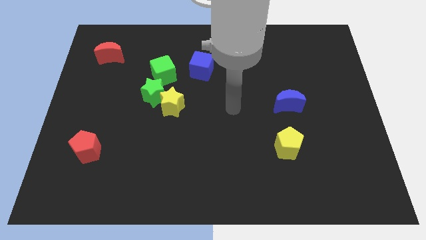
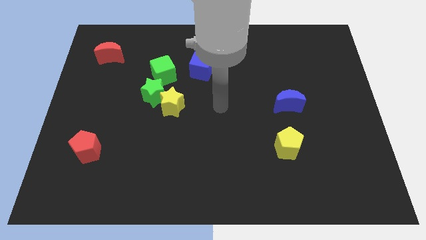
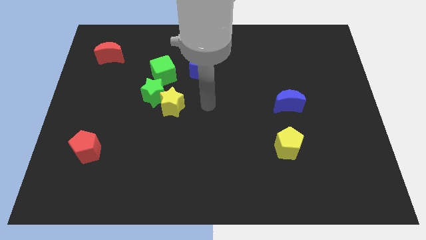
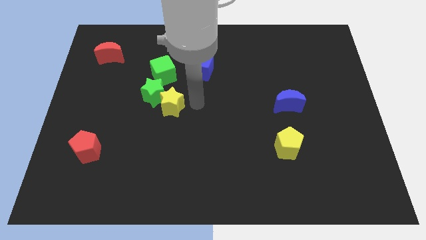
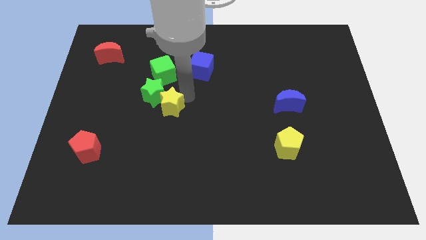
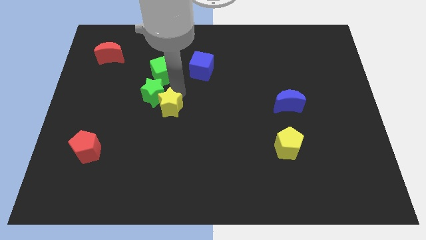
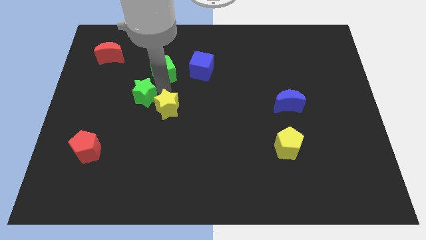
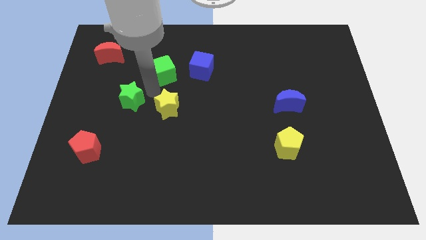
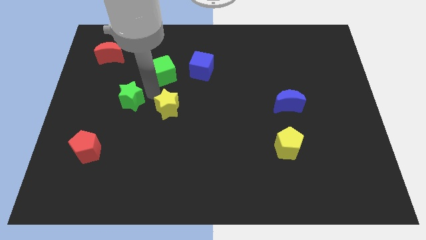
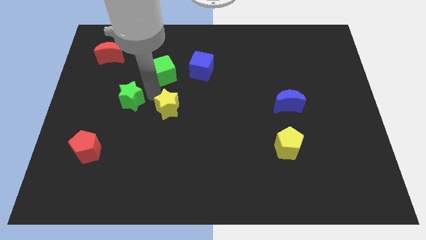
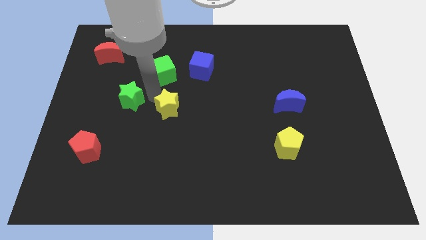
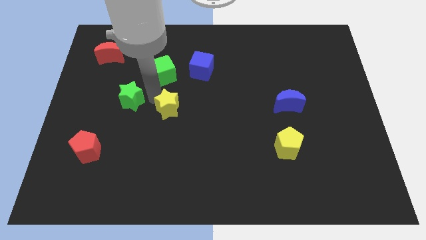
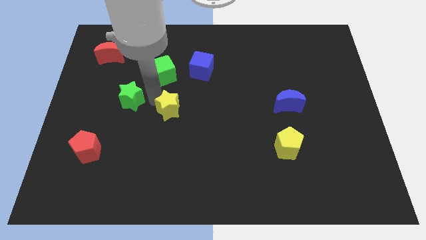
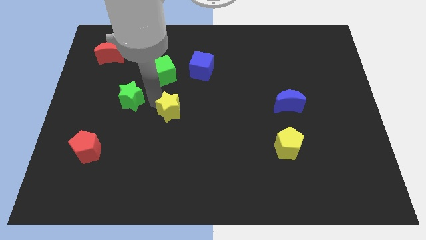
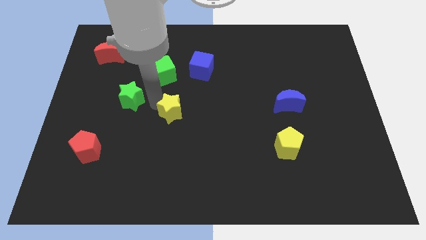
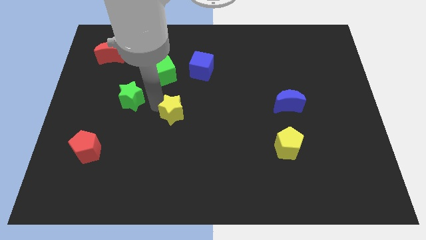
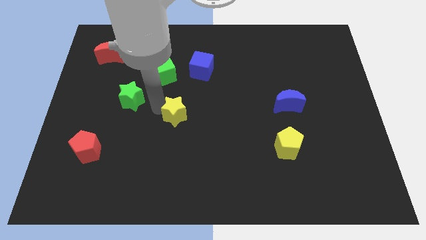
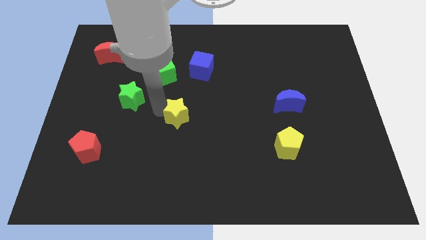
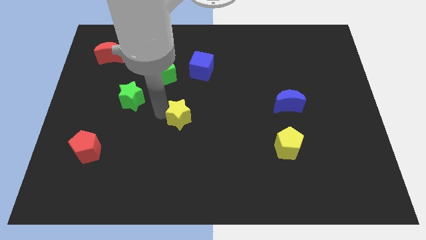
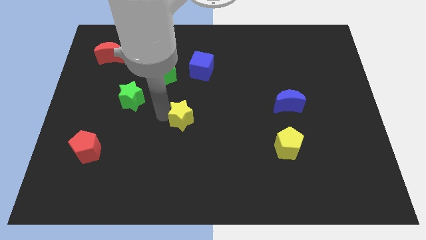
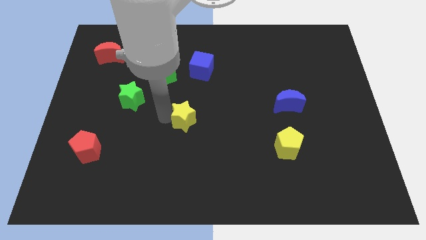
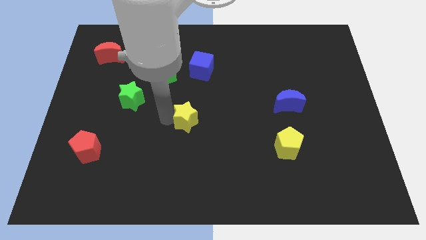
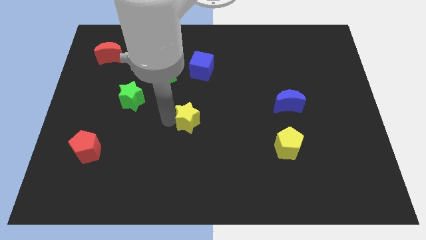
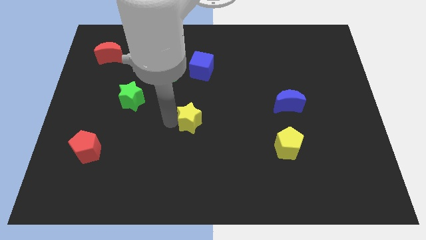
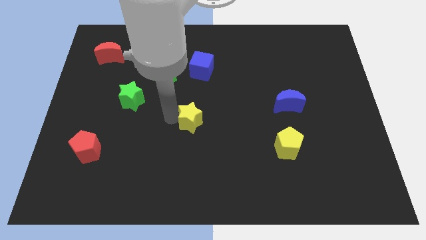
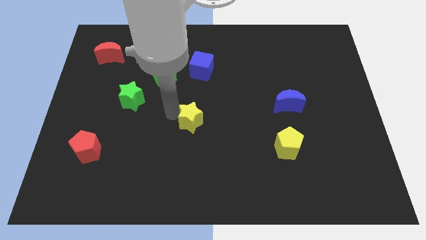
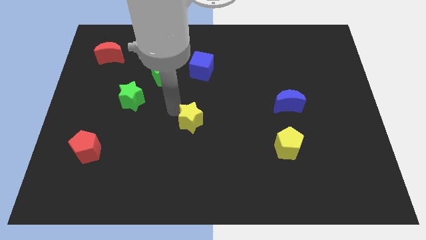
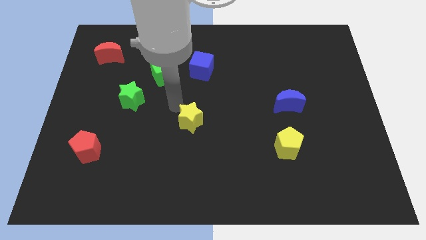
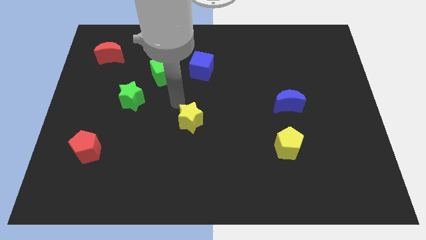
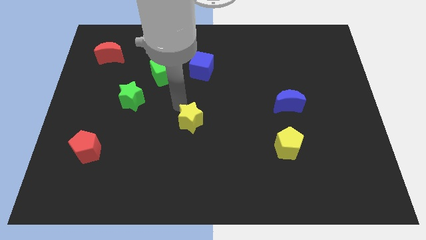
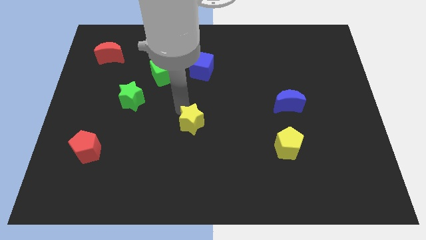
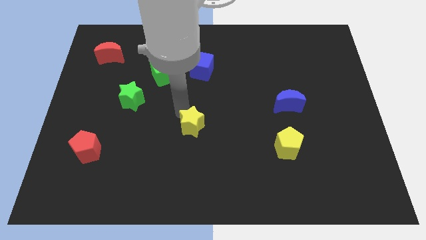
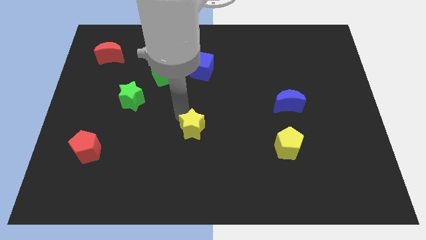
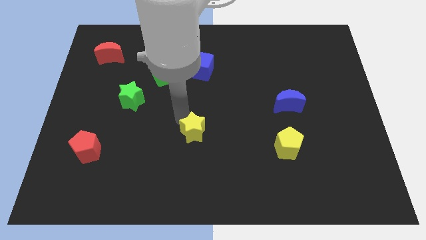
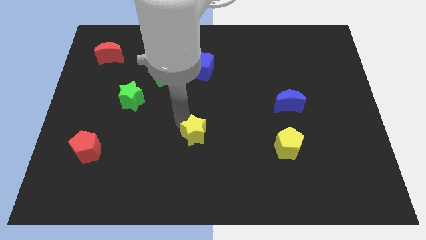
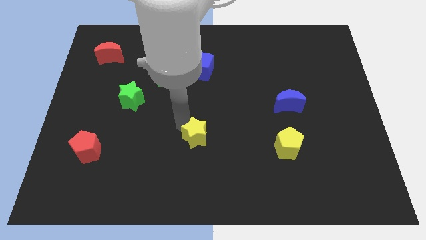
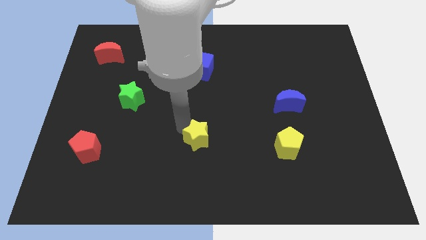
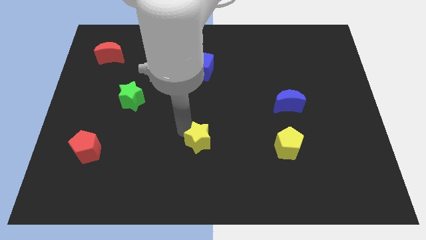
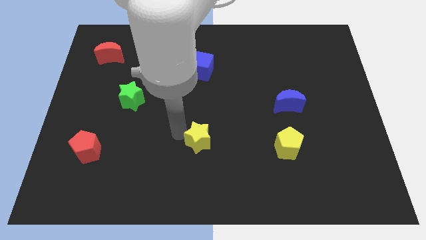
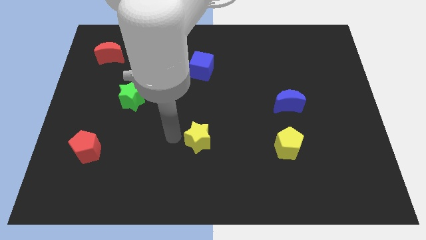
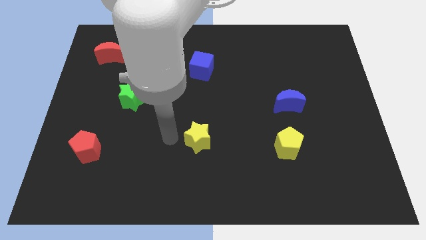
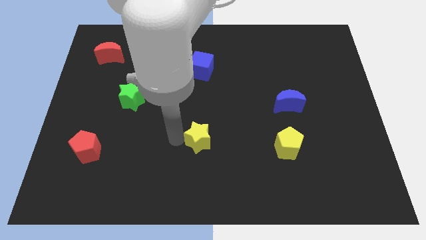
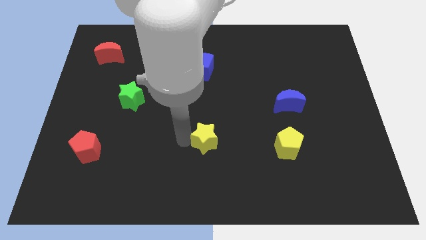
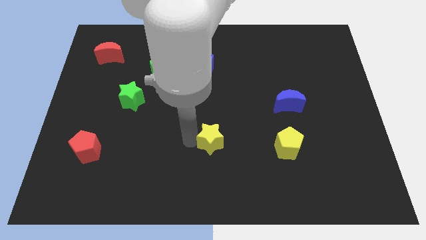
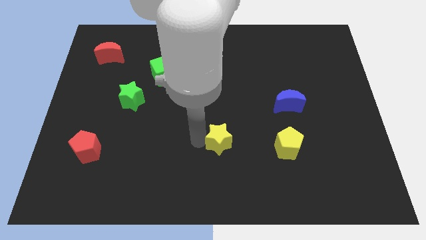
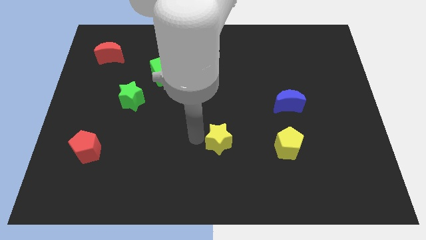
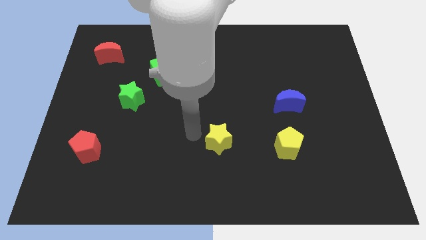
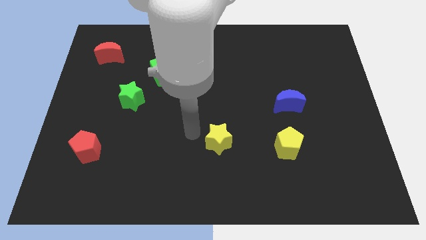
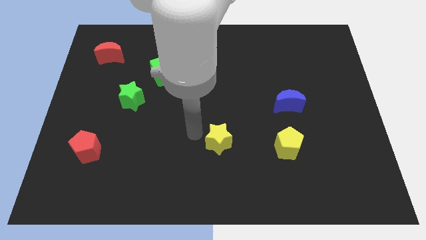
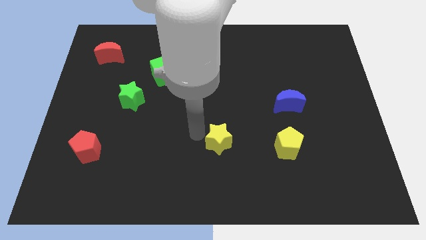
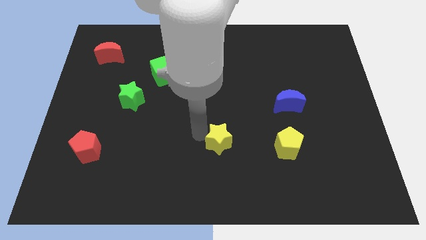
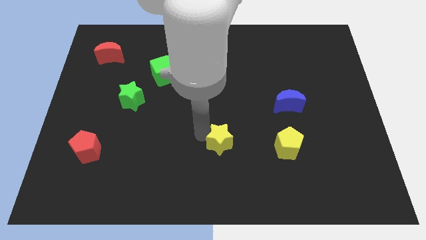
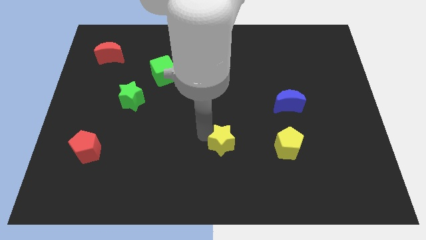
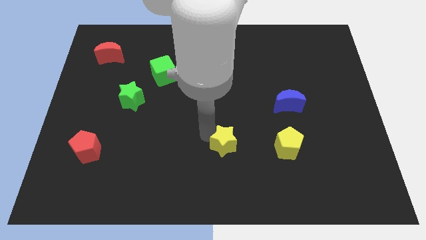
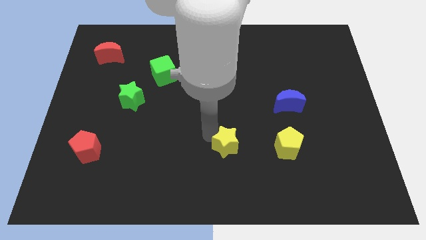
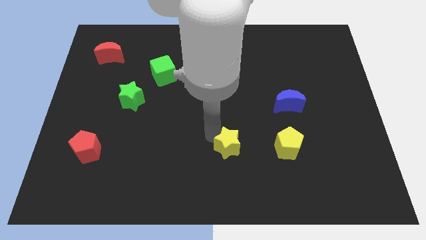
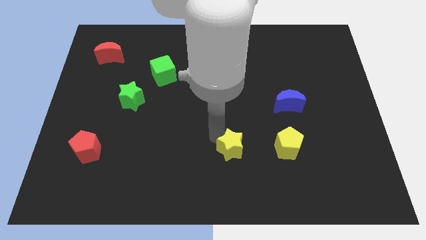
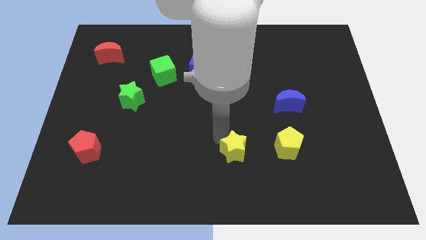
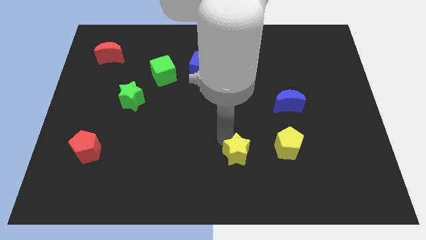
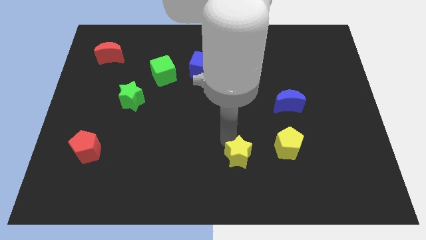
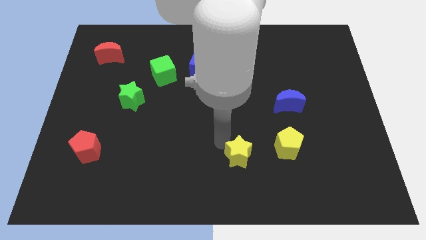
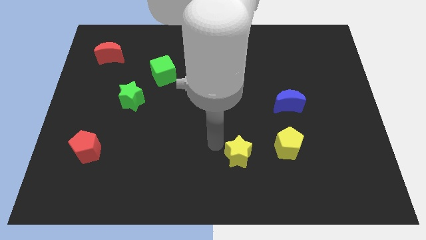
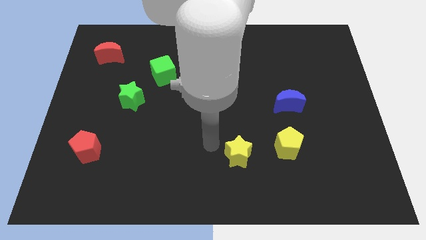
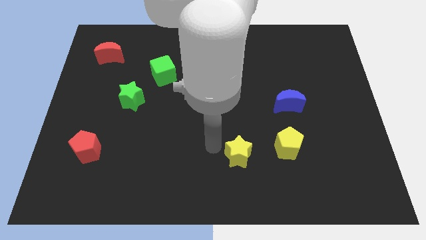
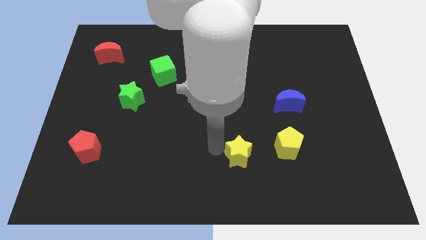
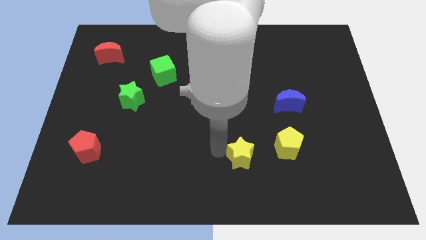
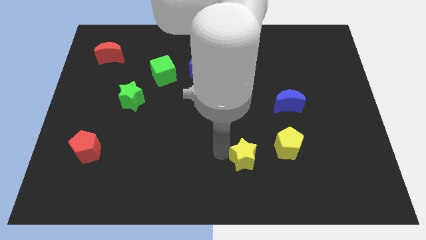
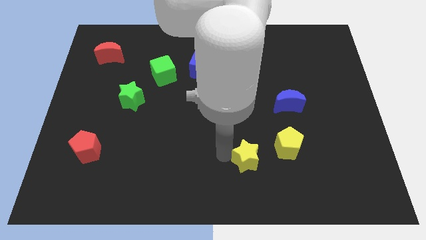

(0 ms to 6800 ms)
move the yellow star to the bottom left of the yellow pentagon
